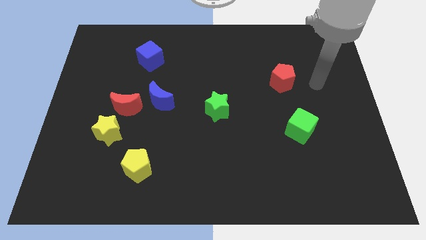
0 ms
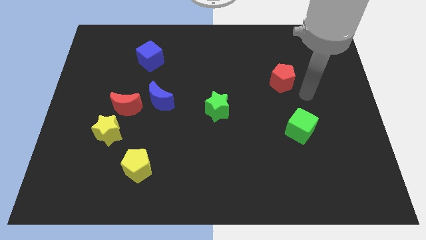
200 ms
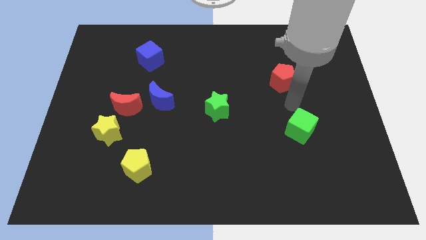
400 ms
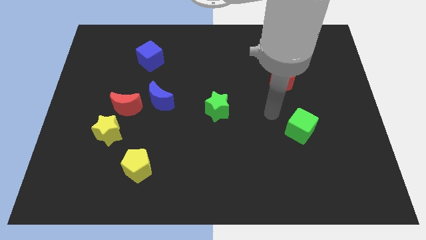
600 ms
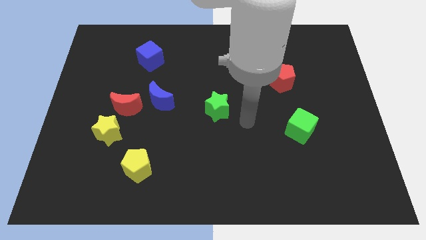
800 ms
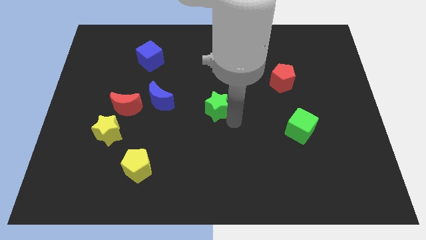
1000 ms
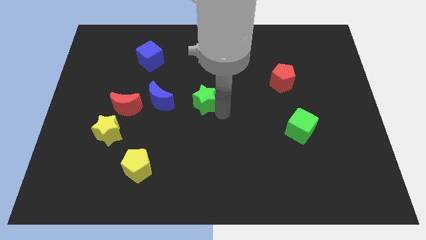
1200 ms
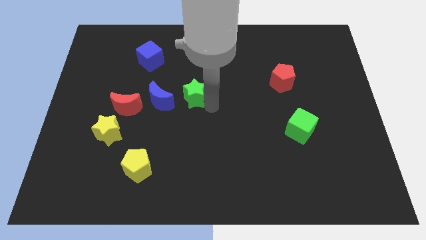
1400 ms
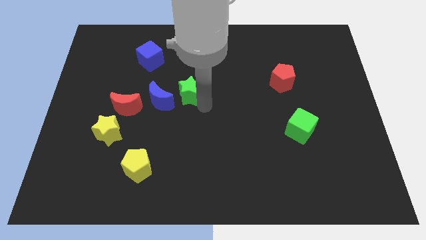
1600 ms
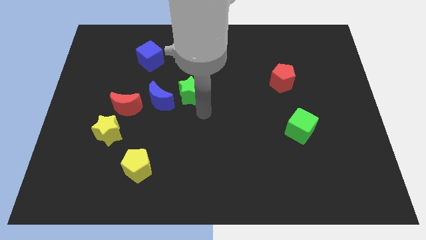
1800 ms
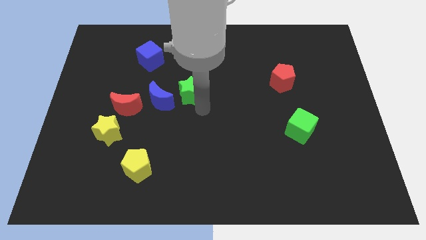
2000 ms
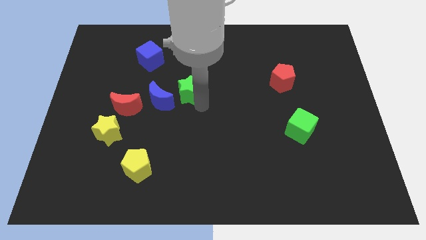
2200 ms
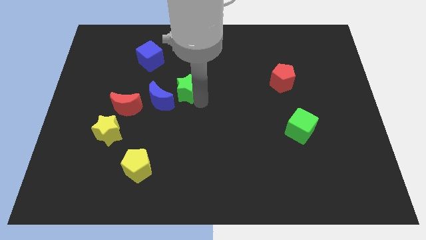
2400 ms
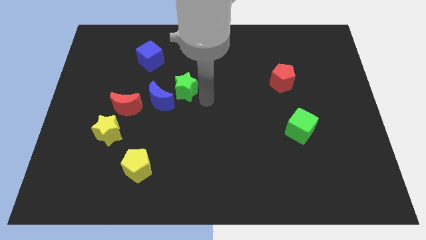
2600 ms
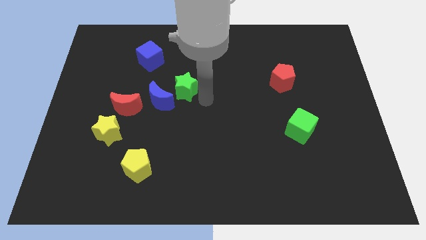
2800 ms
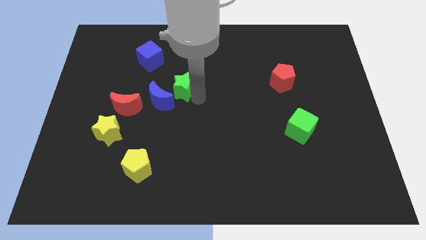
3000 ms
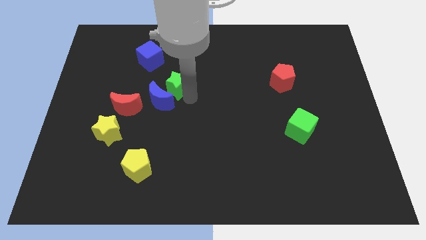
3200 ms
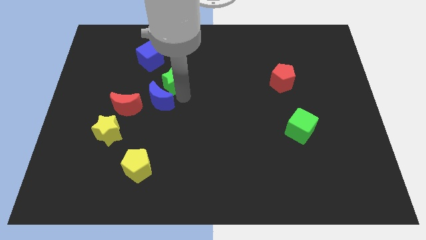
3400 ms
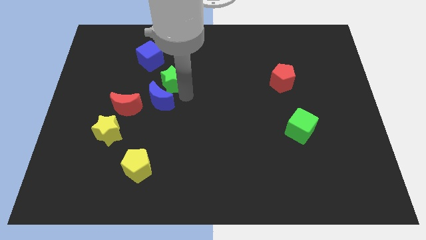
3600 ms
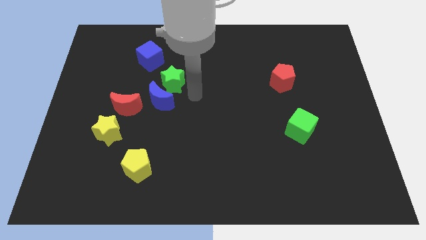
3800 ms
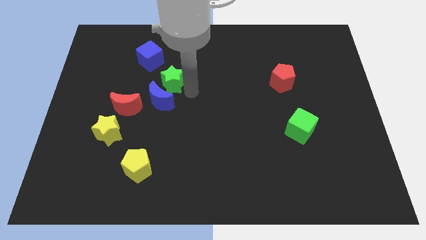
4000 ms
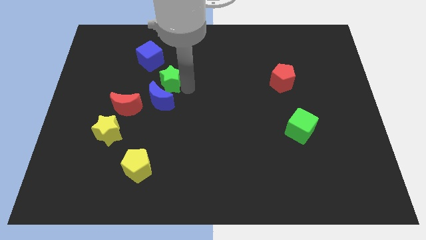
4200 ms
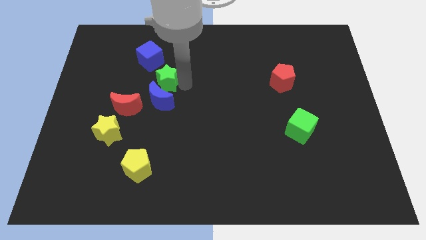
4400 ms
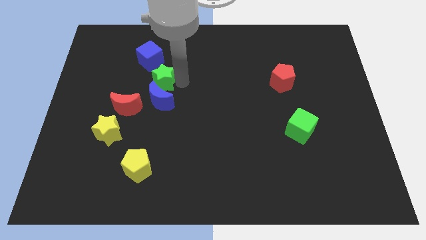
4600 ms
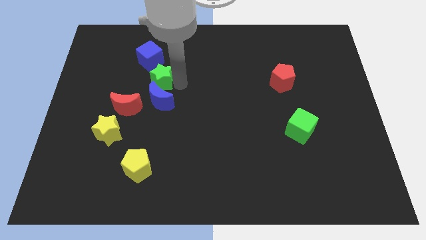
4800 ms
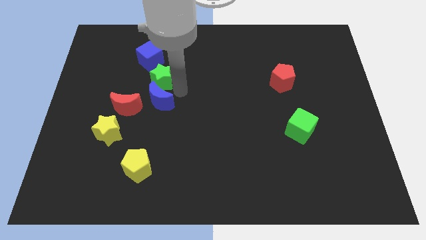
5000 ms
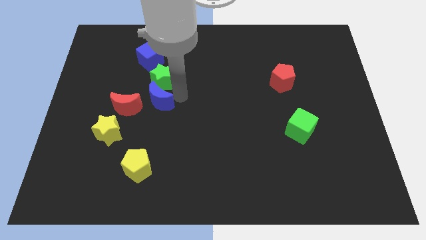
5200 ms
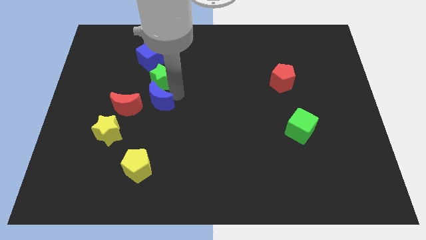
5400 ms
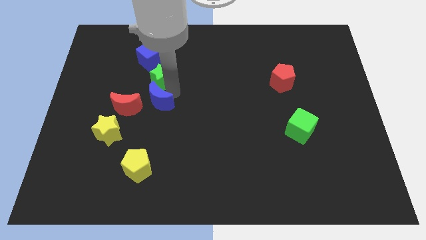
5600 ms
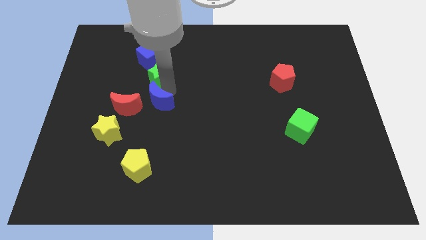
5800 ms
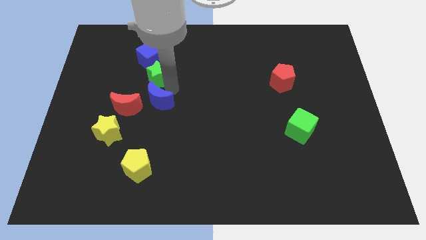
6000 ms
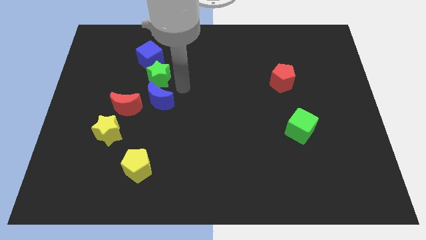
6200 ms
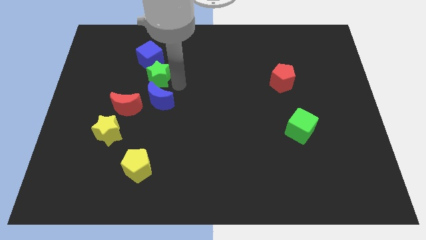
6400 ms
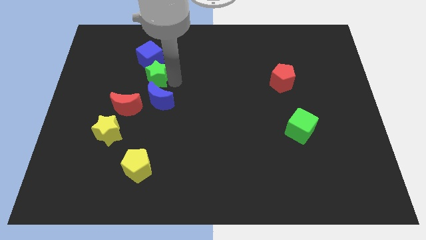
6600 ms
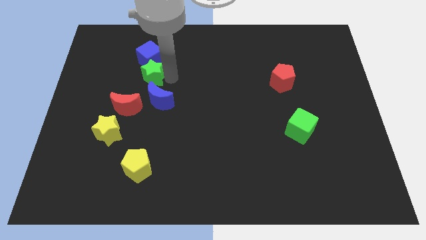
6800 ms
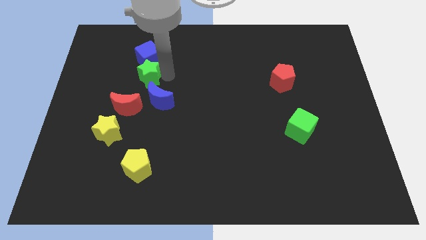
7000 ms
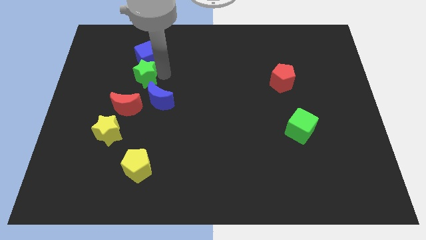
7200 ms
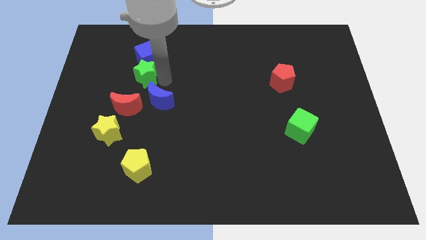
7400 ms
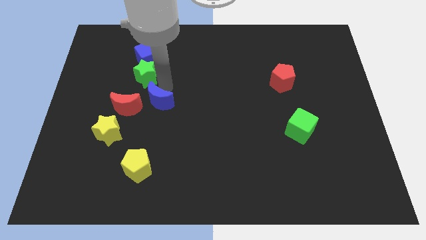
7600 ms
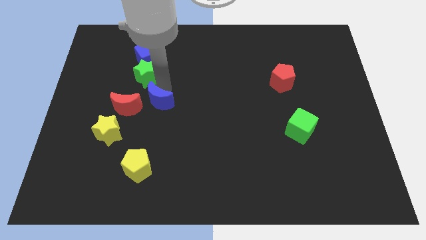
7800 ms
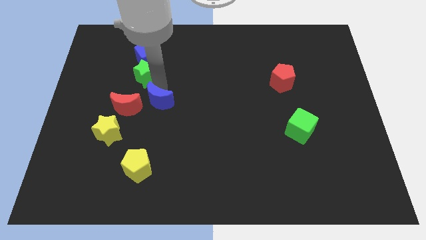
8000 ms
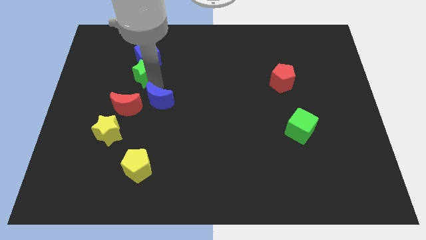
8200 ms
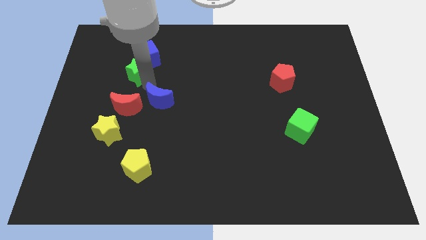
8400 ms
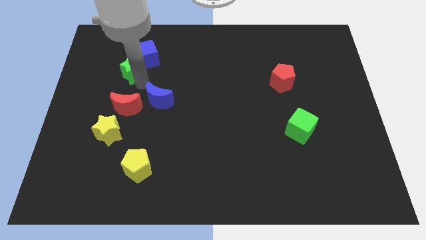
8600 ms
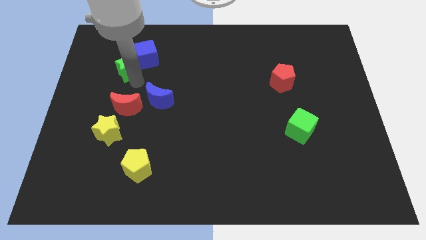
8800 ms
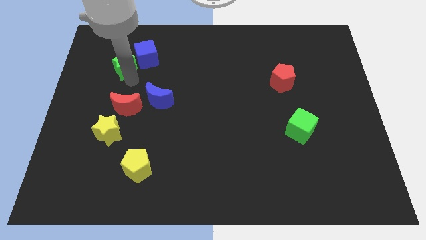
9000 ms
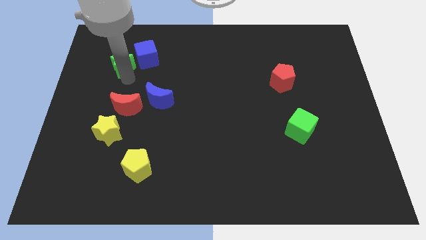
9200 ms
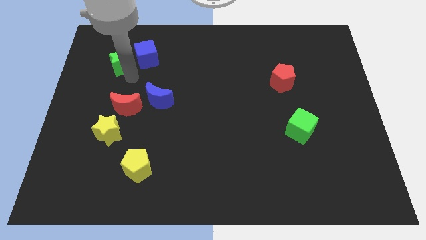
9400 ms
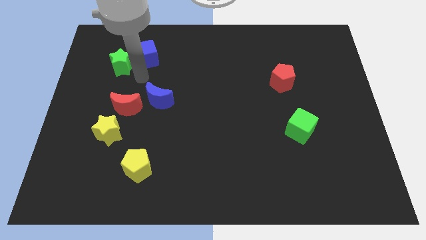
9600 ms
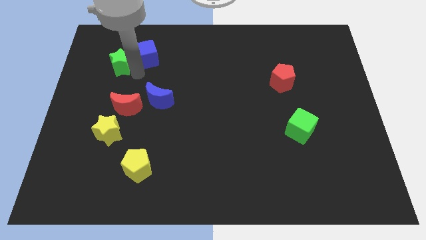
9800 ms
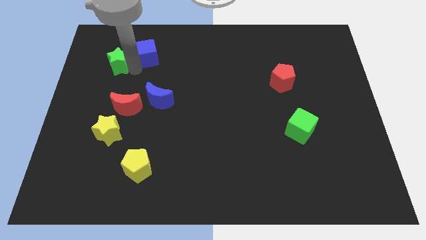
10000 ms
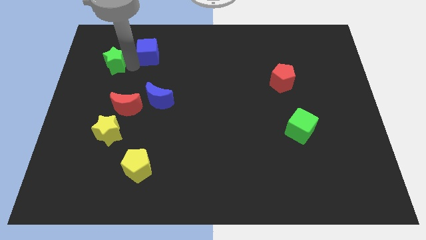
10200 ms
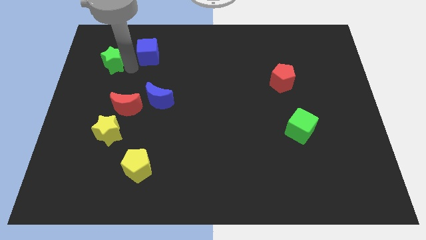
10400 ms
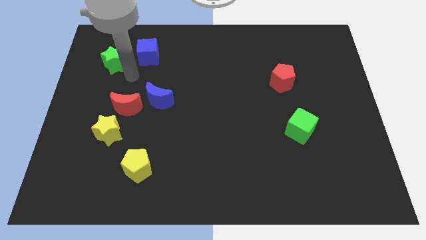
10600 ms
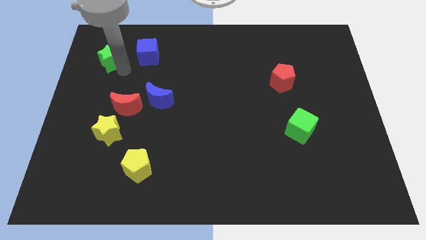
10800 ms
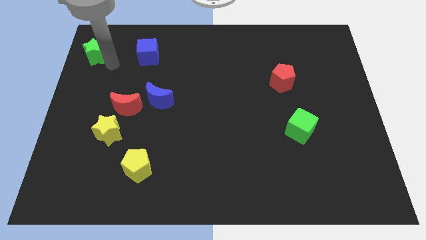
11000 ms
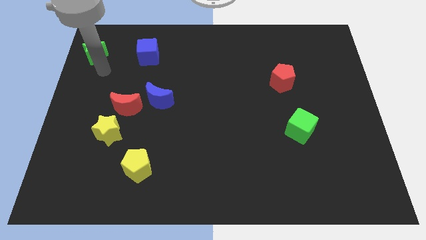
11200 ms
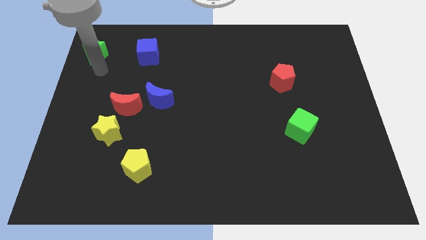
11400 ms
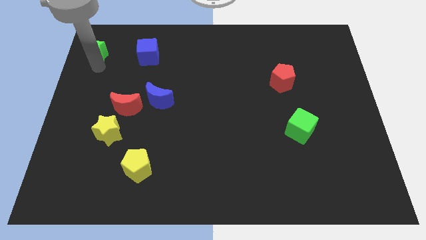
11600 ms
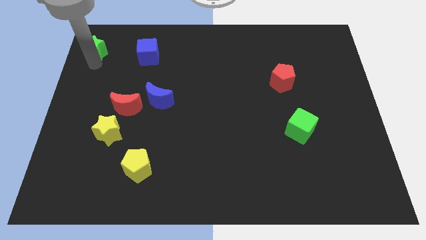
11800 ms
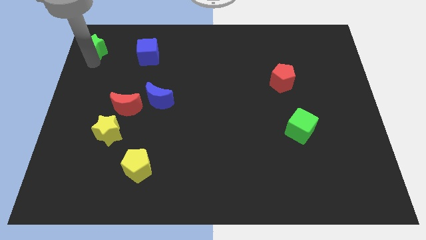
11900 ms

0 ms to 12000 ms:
move the green star to the top left corner

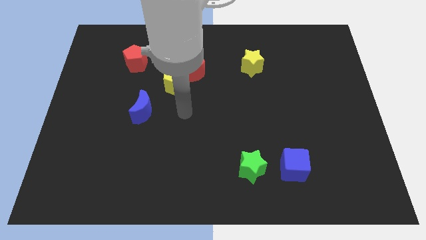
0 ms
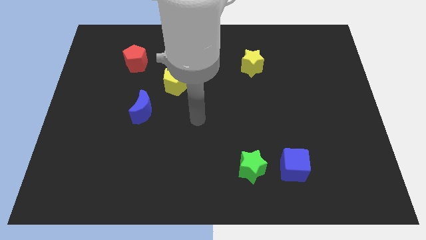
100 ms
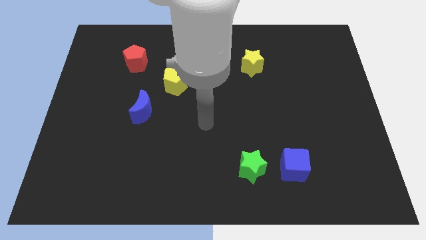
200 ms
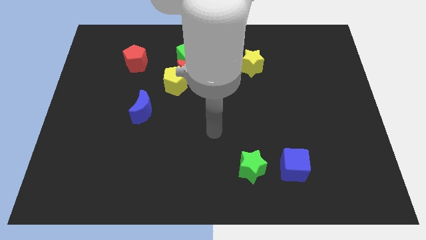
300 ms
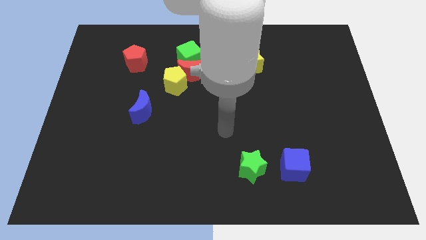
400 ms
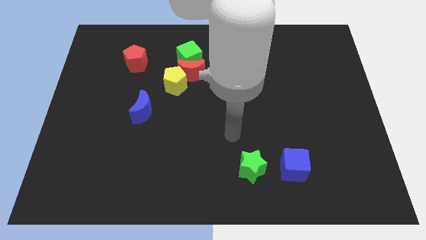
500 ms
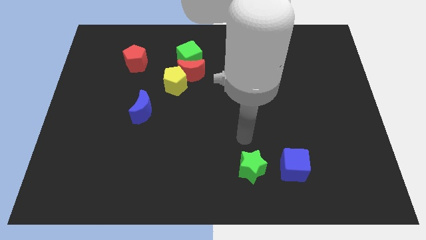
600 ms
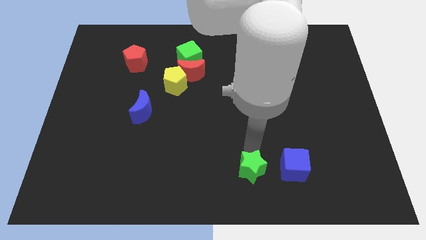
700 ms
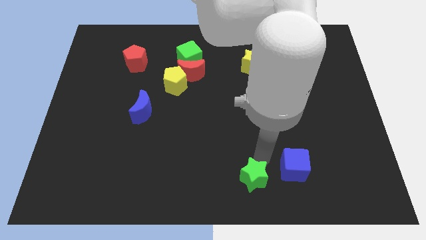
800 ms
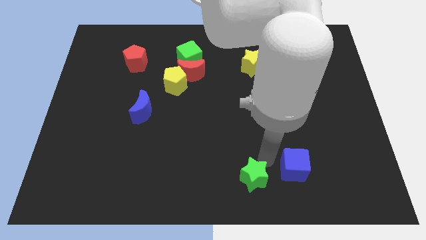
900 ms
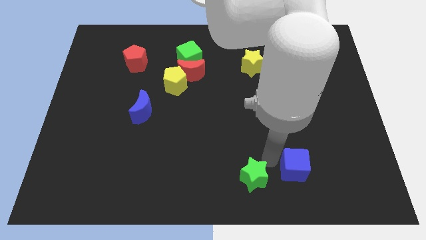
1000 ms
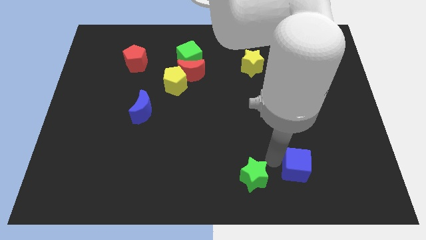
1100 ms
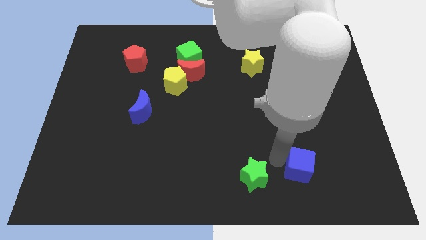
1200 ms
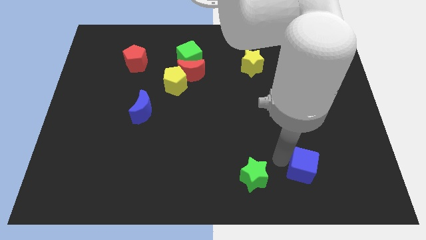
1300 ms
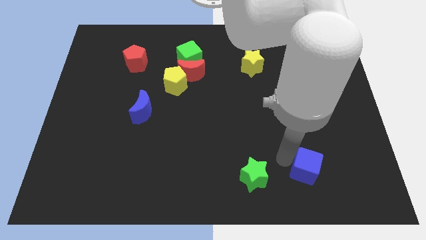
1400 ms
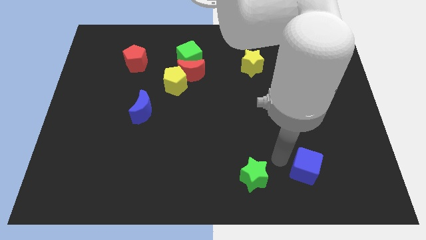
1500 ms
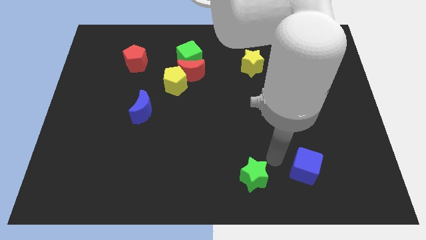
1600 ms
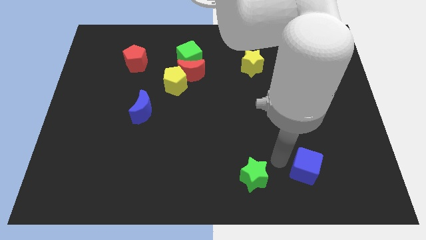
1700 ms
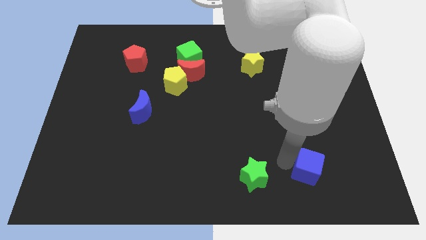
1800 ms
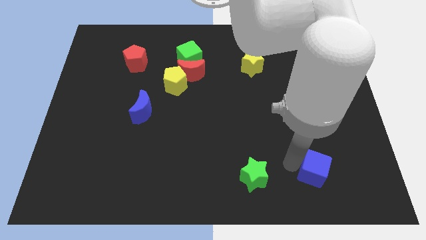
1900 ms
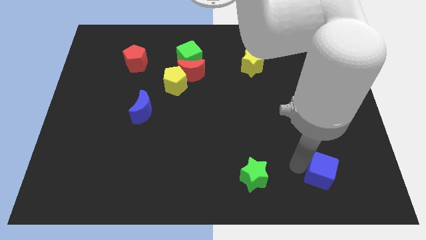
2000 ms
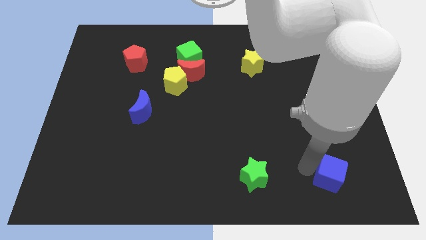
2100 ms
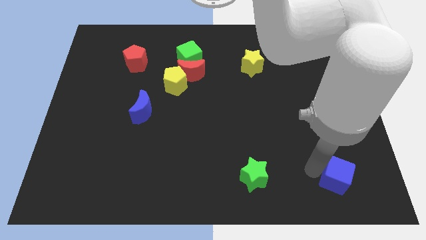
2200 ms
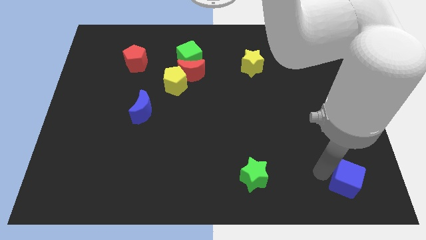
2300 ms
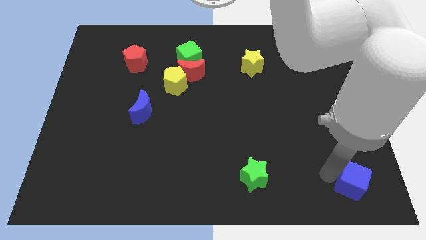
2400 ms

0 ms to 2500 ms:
slide the blue cube to the bottom right of the board
